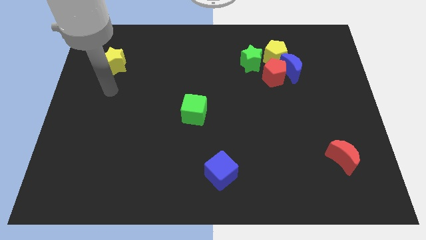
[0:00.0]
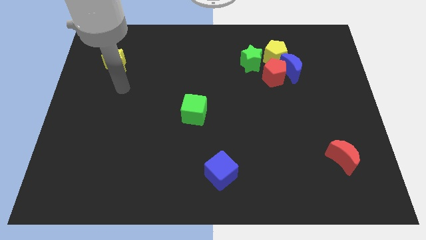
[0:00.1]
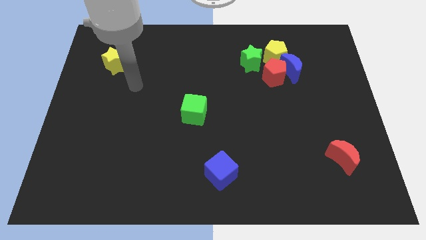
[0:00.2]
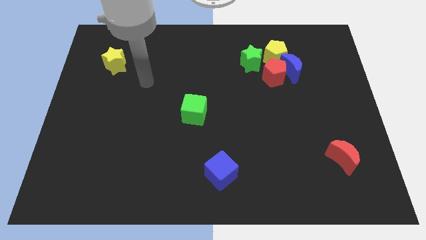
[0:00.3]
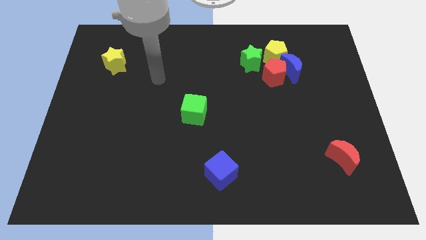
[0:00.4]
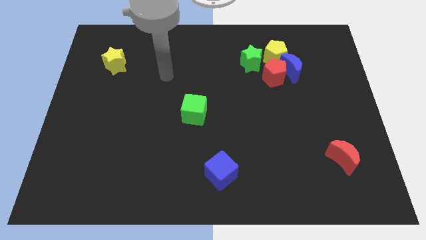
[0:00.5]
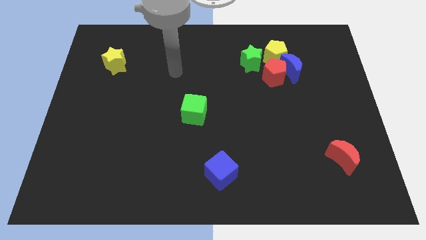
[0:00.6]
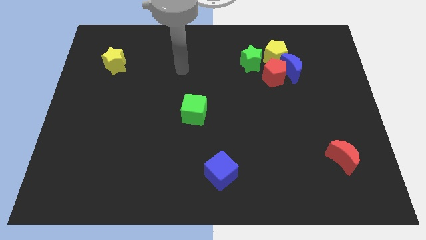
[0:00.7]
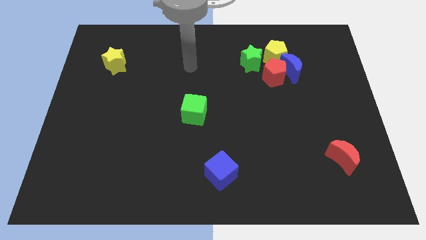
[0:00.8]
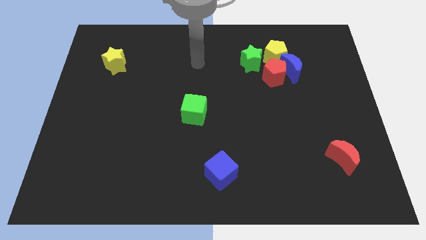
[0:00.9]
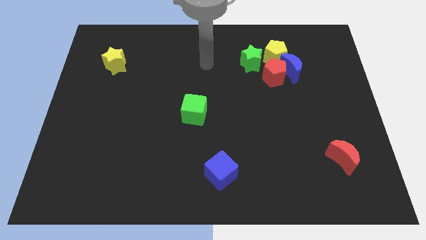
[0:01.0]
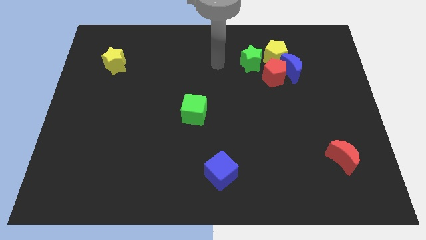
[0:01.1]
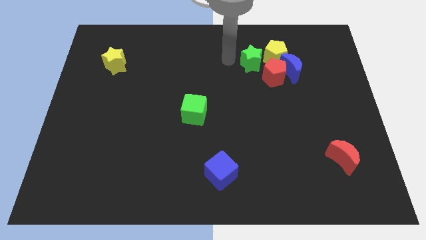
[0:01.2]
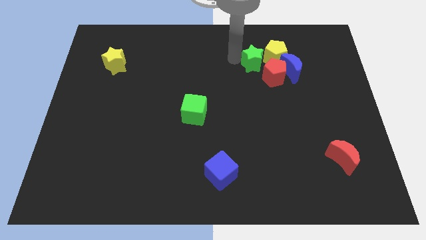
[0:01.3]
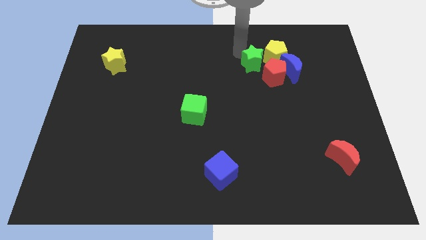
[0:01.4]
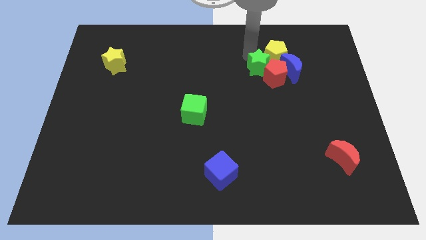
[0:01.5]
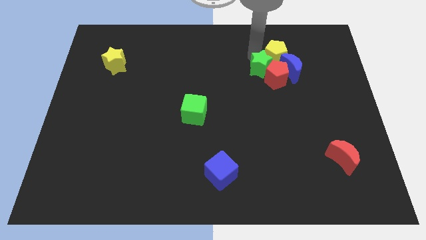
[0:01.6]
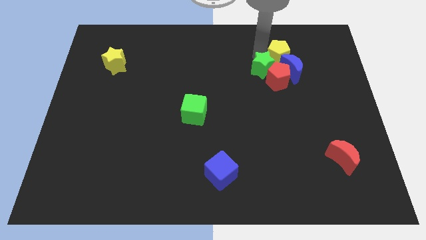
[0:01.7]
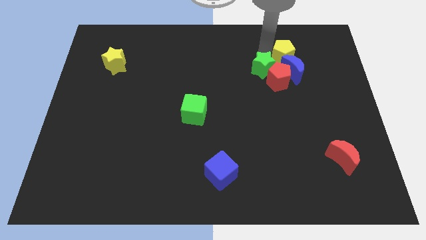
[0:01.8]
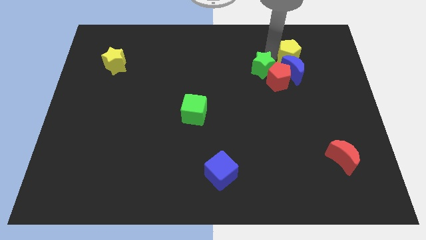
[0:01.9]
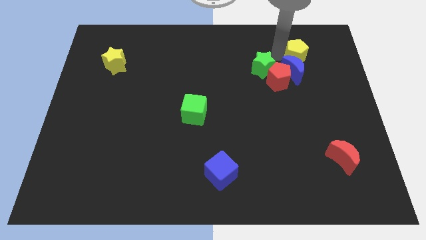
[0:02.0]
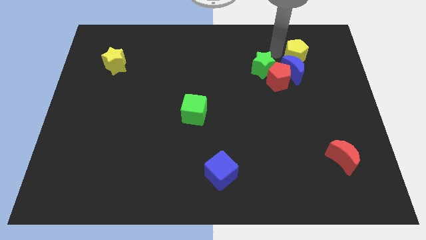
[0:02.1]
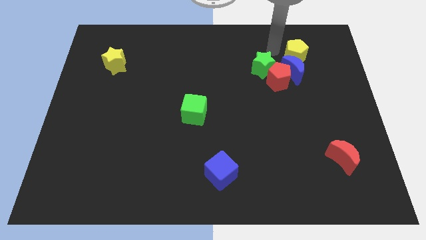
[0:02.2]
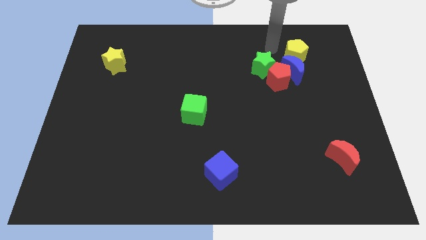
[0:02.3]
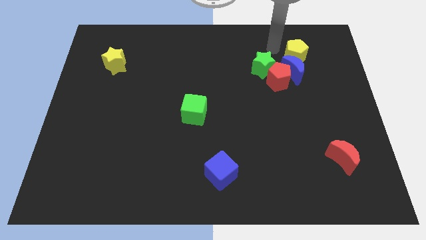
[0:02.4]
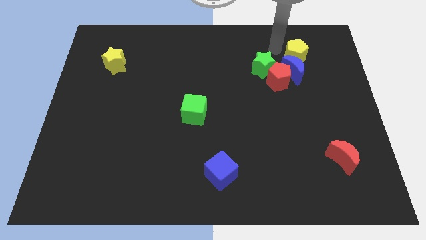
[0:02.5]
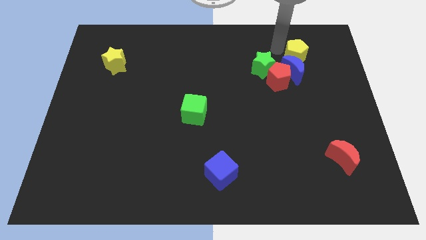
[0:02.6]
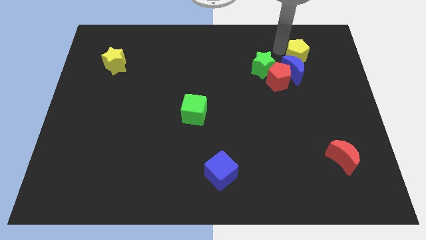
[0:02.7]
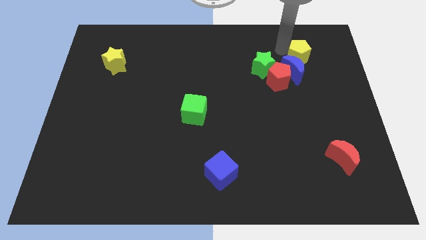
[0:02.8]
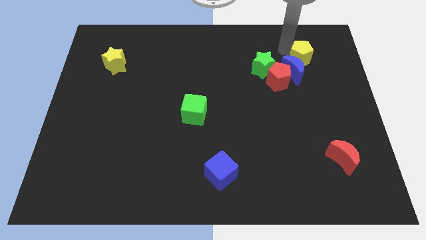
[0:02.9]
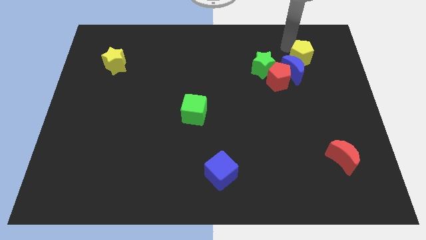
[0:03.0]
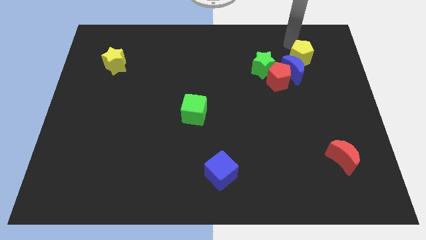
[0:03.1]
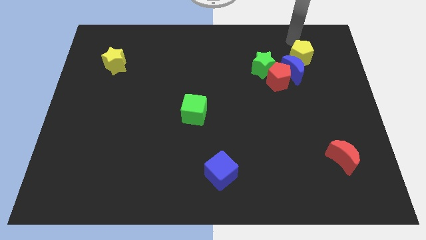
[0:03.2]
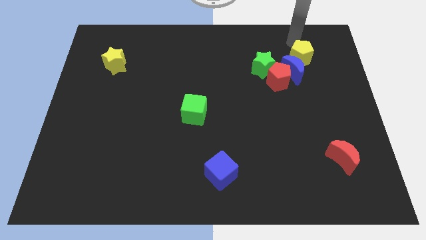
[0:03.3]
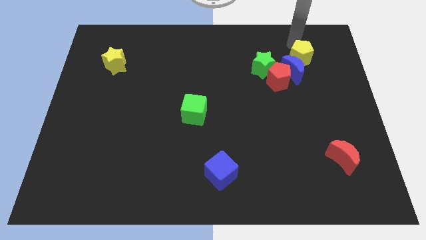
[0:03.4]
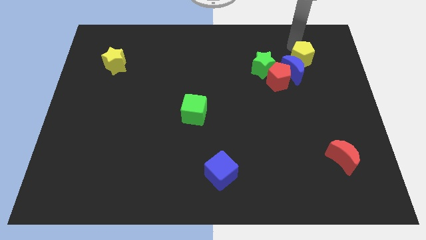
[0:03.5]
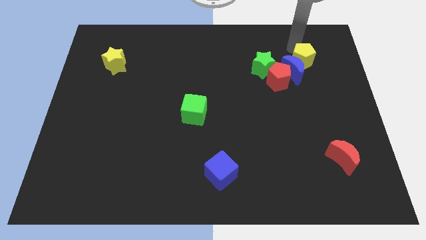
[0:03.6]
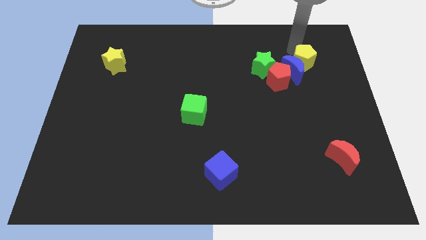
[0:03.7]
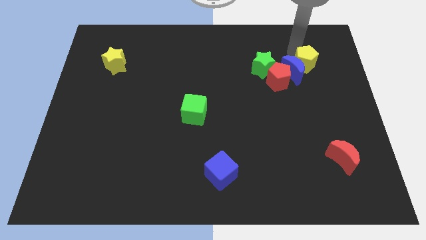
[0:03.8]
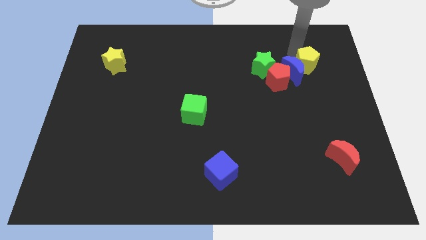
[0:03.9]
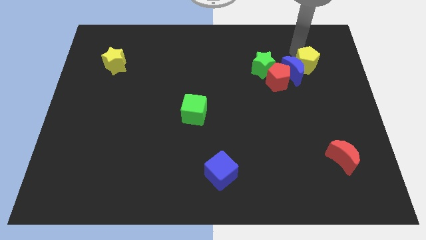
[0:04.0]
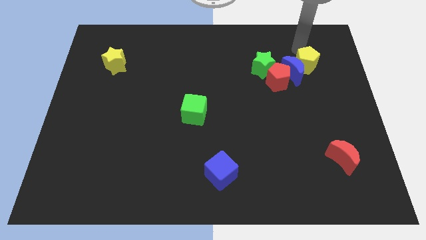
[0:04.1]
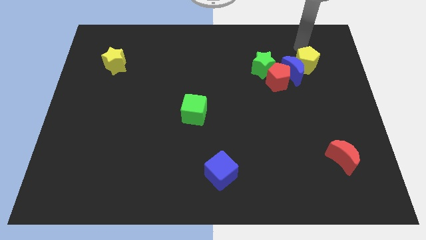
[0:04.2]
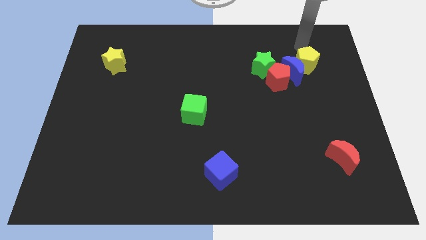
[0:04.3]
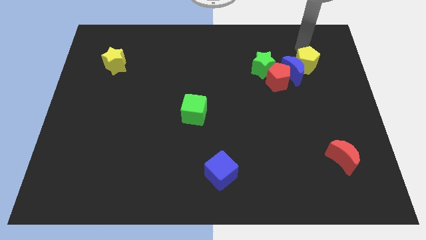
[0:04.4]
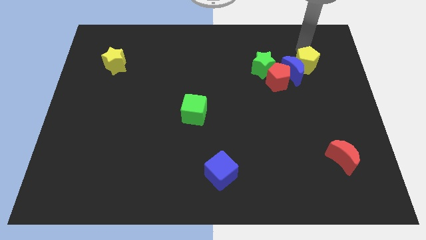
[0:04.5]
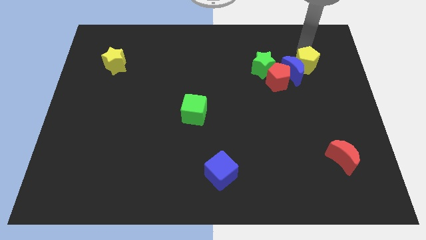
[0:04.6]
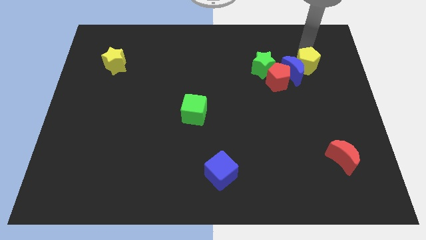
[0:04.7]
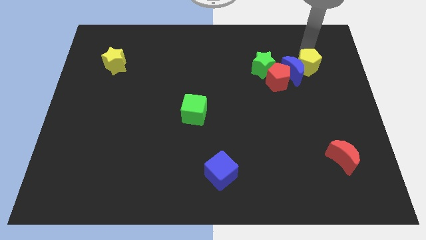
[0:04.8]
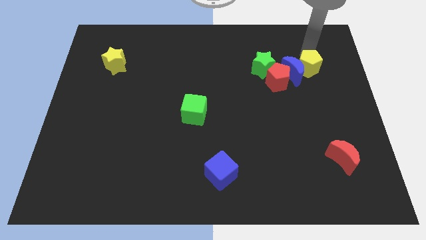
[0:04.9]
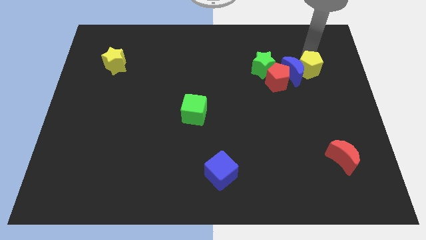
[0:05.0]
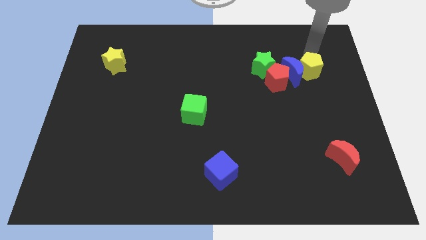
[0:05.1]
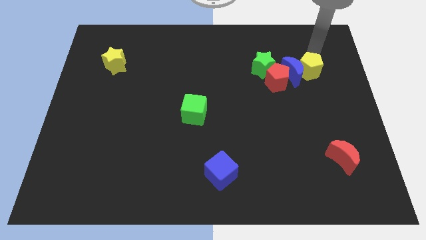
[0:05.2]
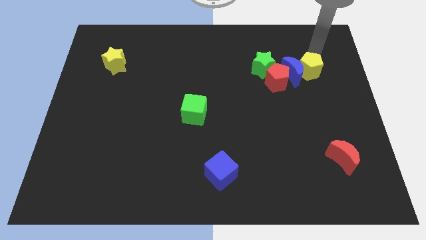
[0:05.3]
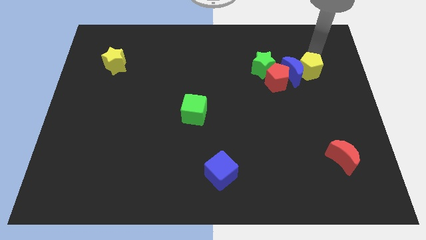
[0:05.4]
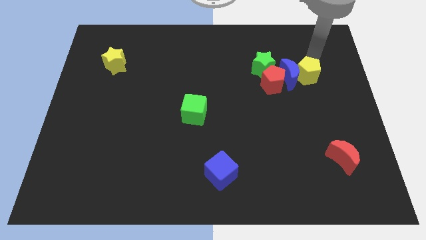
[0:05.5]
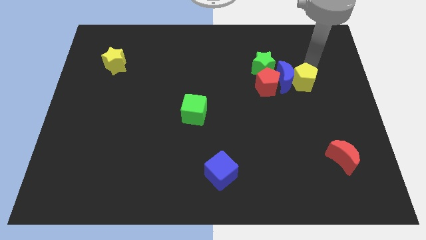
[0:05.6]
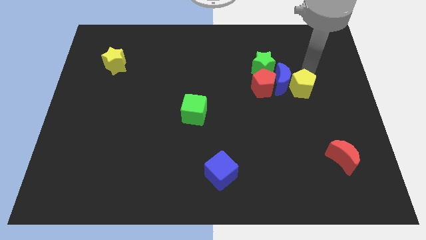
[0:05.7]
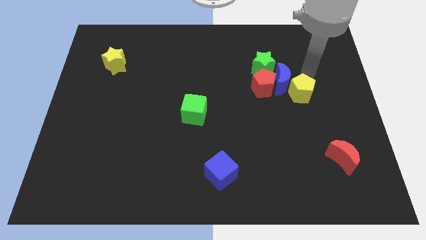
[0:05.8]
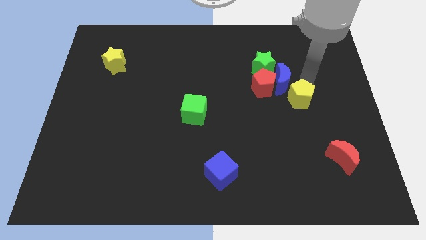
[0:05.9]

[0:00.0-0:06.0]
slide the yellow pentagon to the bottom right of the red pentagon

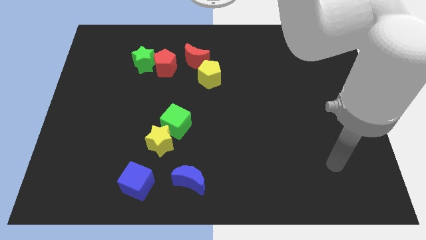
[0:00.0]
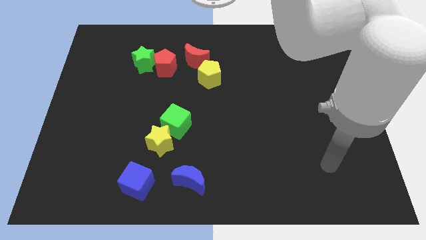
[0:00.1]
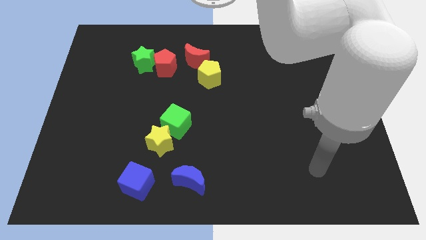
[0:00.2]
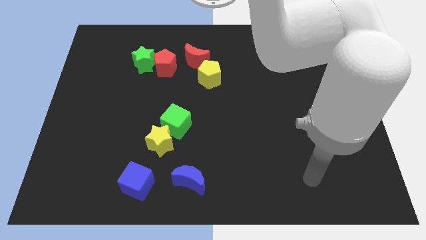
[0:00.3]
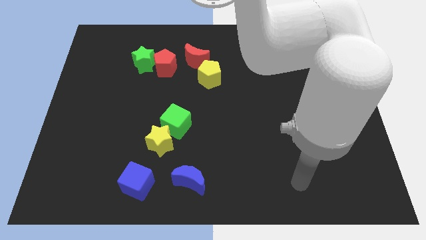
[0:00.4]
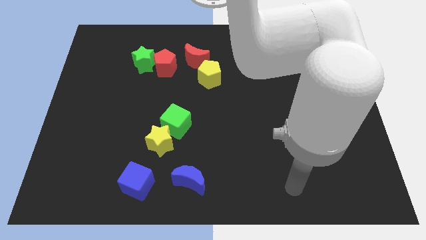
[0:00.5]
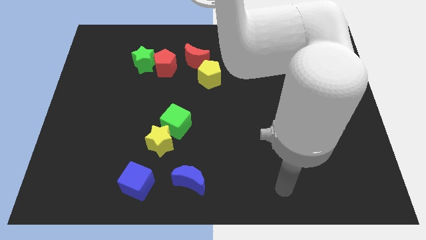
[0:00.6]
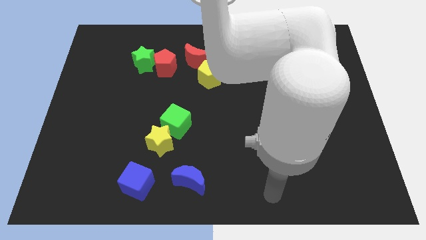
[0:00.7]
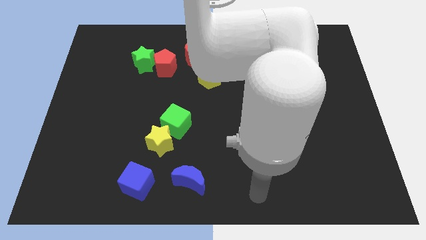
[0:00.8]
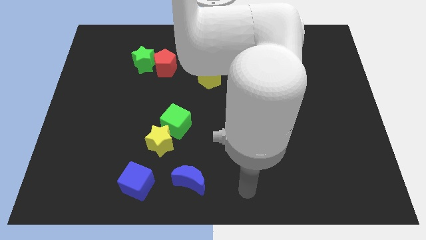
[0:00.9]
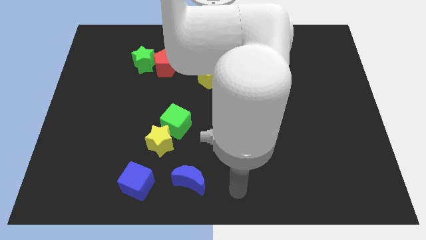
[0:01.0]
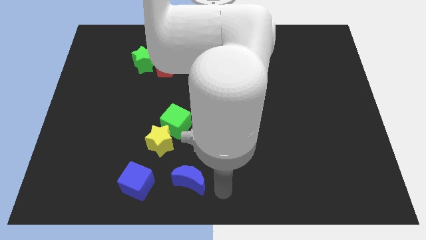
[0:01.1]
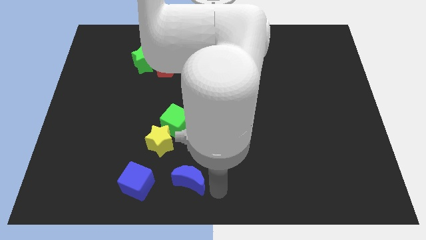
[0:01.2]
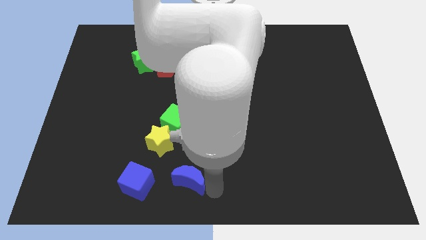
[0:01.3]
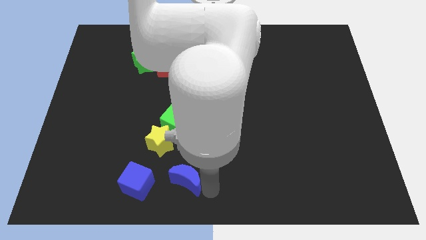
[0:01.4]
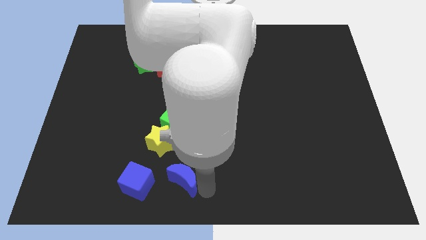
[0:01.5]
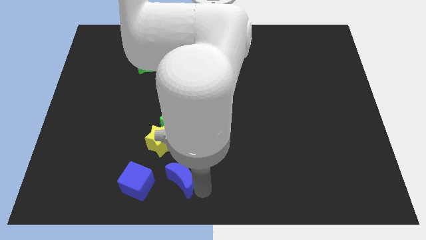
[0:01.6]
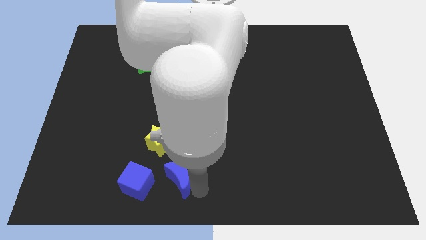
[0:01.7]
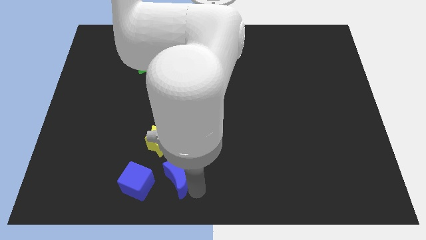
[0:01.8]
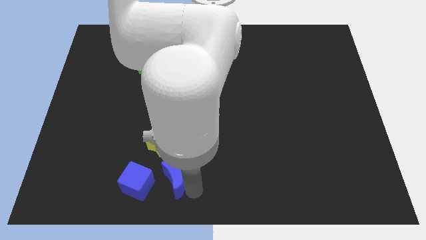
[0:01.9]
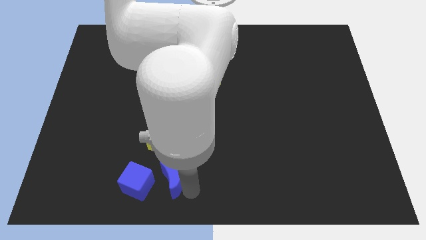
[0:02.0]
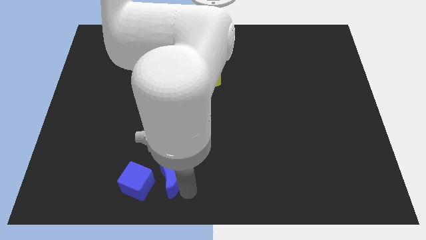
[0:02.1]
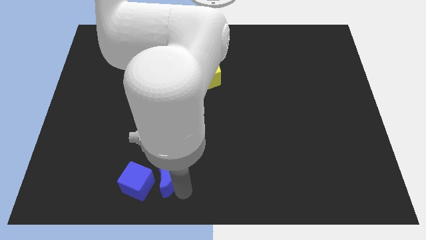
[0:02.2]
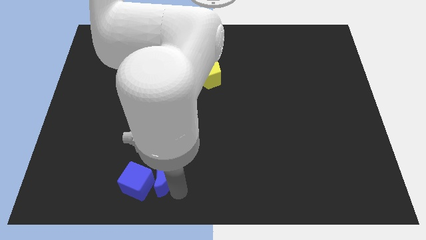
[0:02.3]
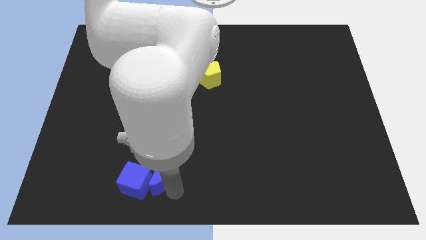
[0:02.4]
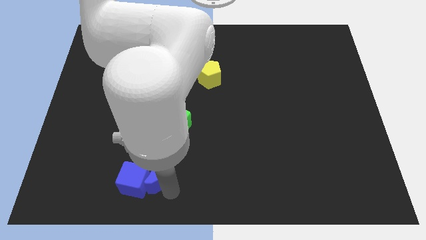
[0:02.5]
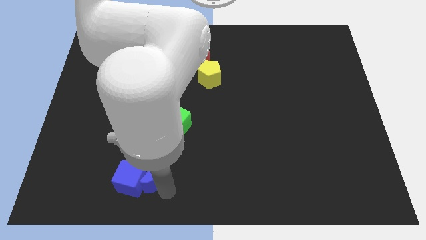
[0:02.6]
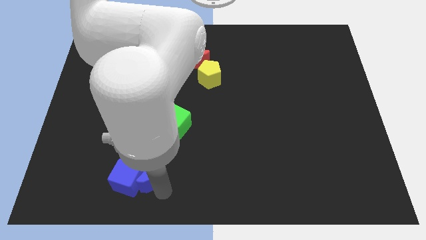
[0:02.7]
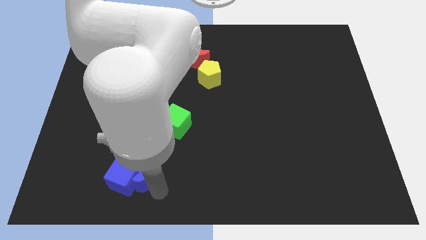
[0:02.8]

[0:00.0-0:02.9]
put the blue moon diagonally down and to the left of the yellow star
